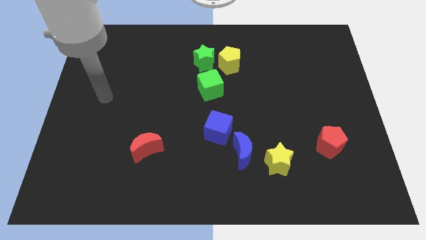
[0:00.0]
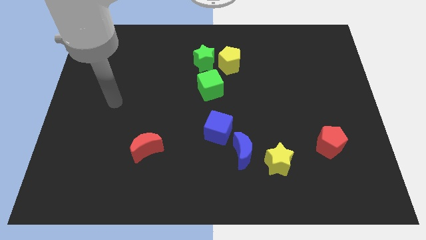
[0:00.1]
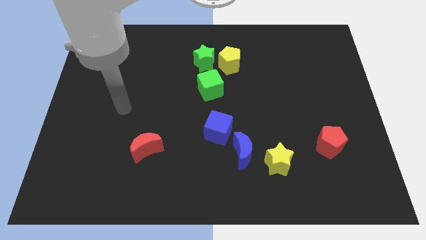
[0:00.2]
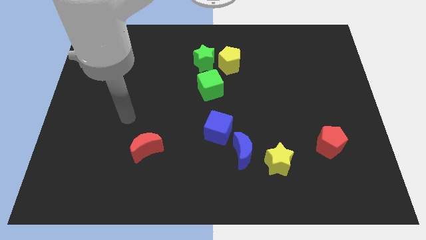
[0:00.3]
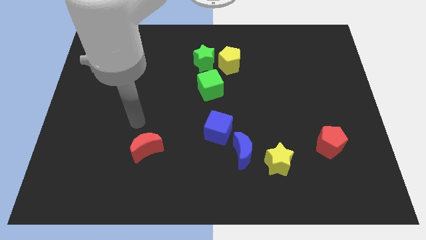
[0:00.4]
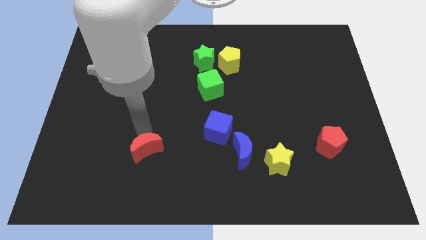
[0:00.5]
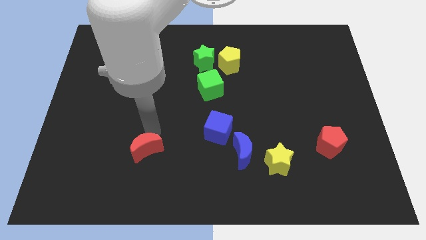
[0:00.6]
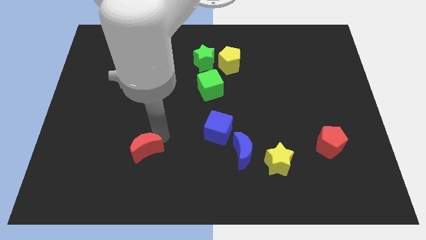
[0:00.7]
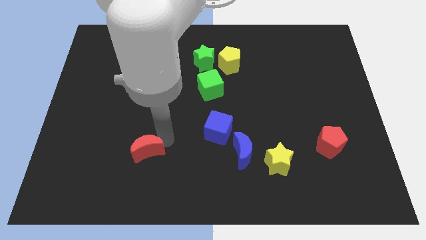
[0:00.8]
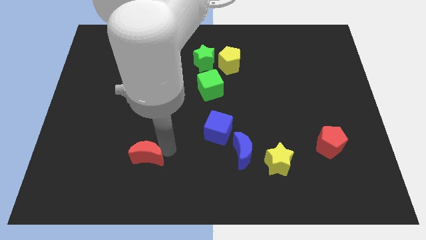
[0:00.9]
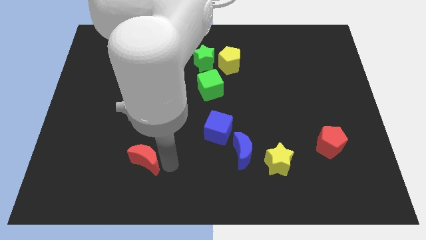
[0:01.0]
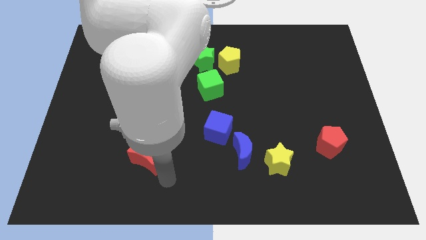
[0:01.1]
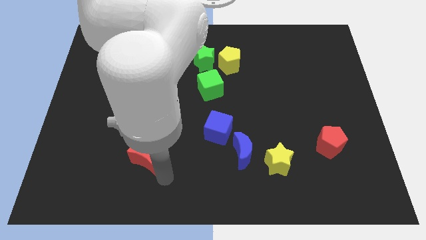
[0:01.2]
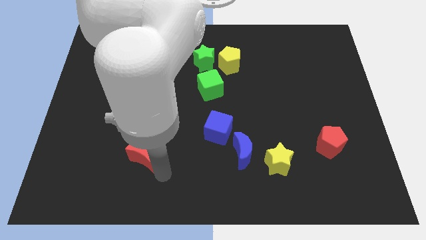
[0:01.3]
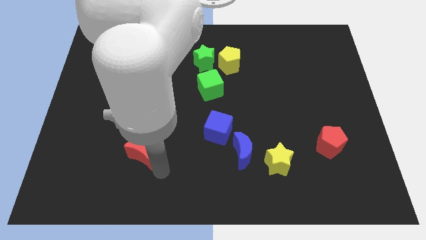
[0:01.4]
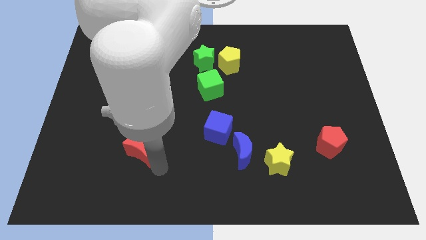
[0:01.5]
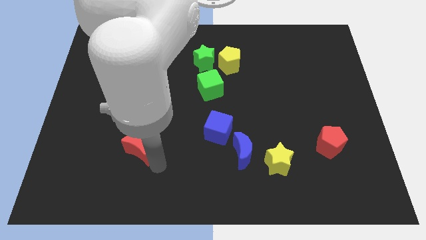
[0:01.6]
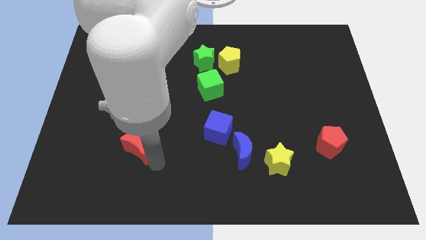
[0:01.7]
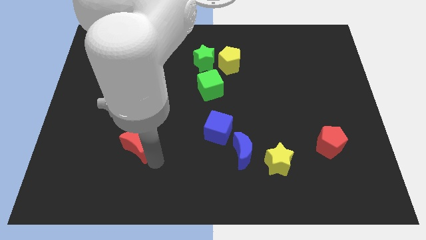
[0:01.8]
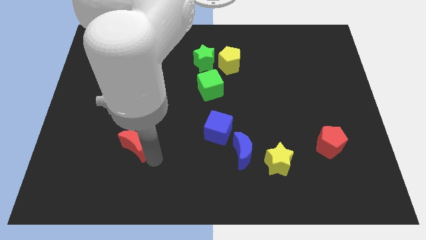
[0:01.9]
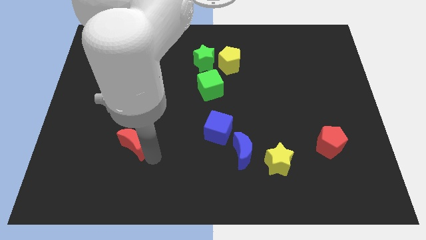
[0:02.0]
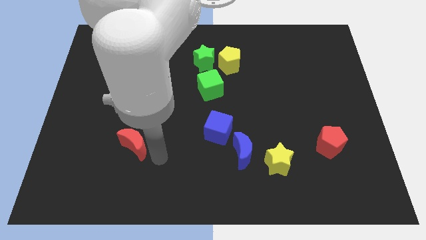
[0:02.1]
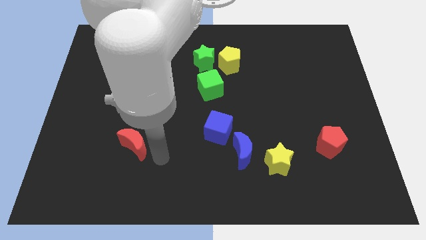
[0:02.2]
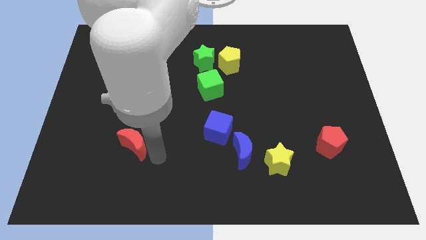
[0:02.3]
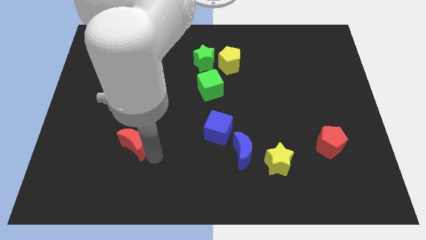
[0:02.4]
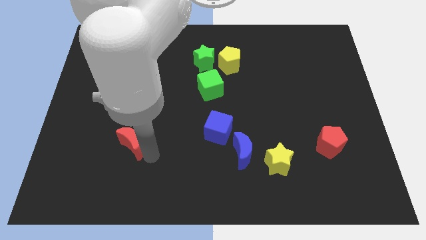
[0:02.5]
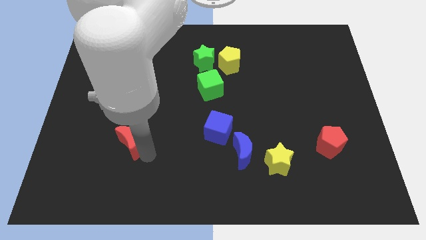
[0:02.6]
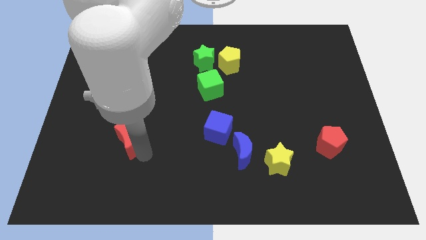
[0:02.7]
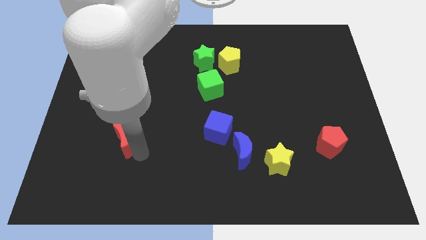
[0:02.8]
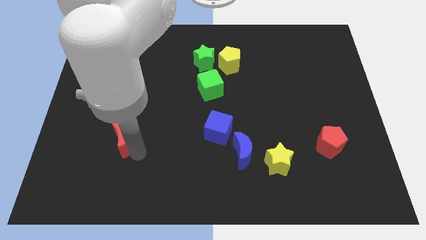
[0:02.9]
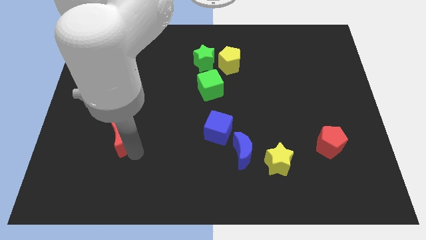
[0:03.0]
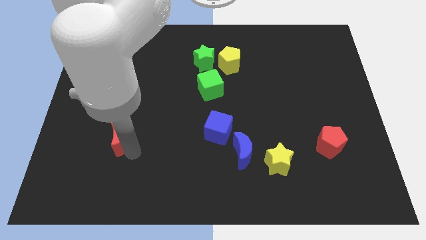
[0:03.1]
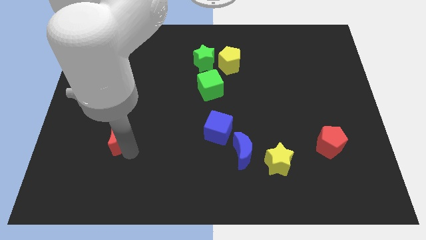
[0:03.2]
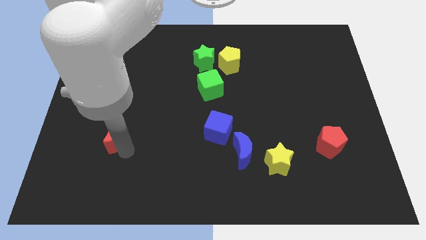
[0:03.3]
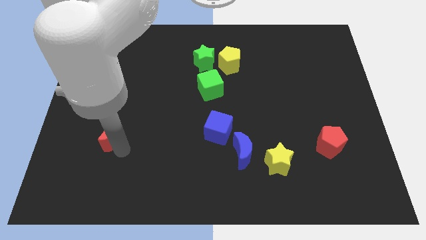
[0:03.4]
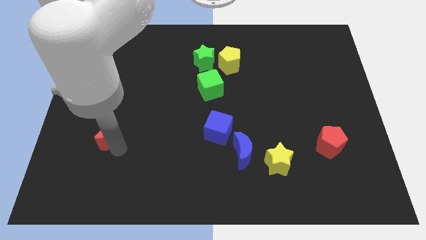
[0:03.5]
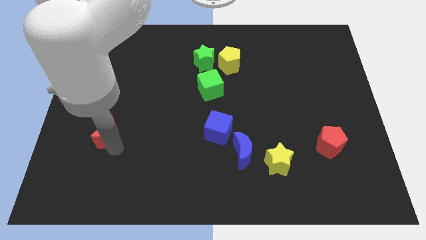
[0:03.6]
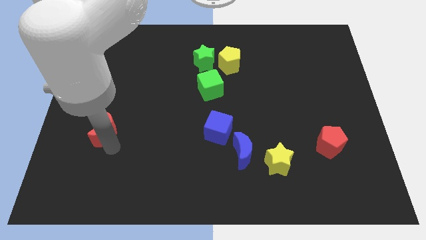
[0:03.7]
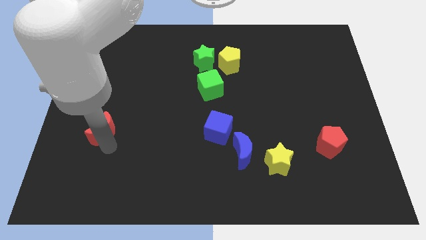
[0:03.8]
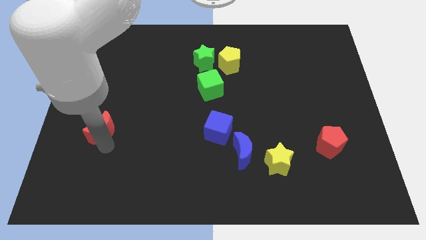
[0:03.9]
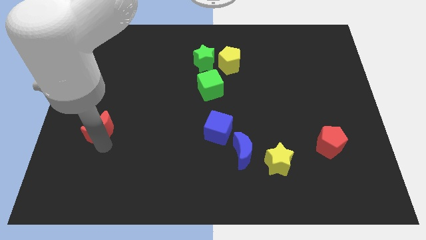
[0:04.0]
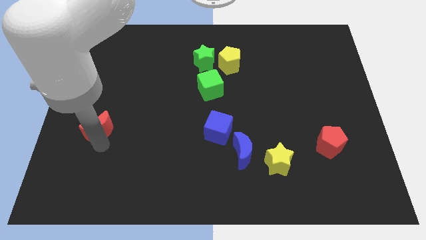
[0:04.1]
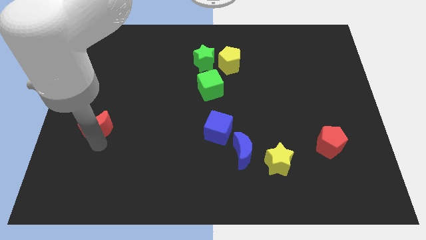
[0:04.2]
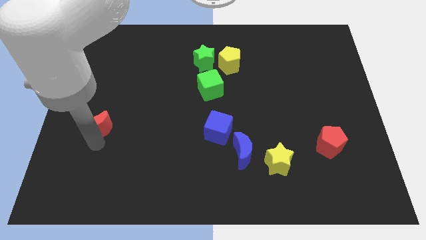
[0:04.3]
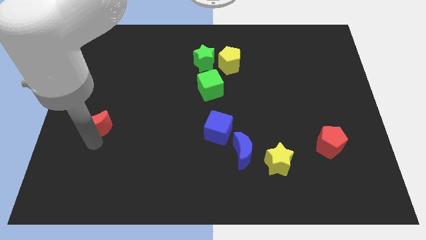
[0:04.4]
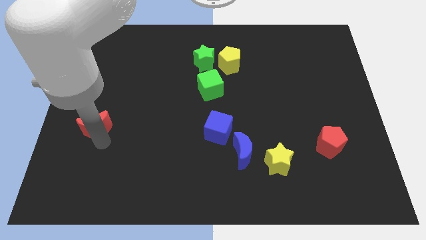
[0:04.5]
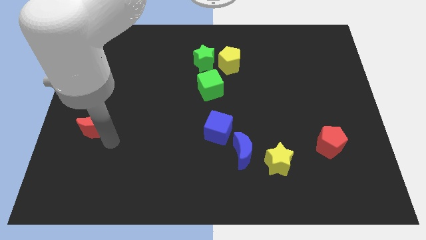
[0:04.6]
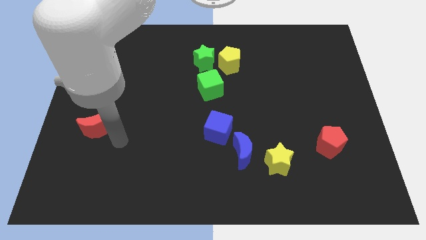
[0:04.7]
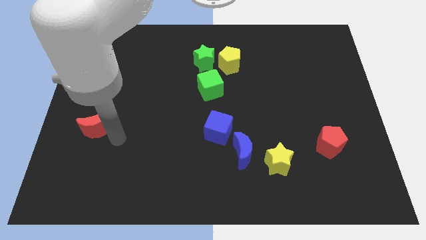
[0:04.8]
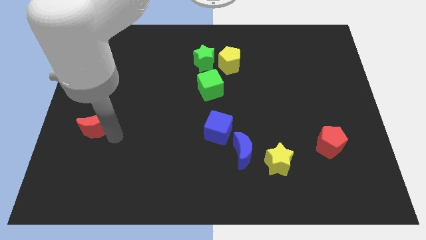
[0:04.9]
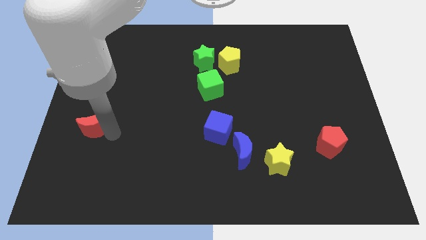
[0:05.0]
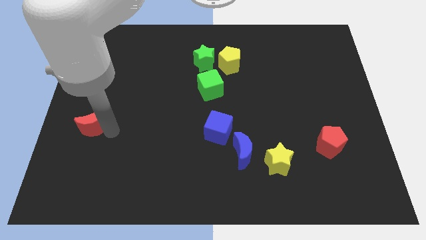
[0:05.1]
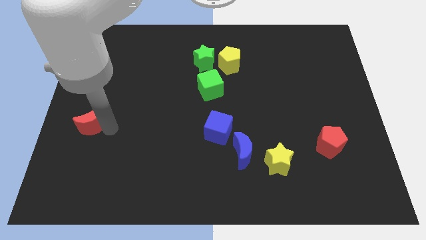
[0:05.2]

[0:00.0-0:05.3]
push the red moon to the left side

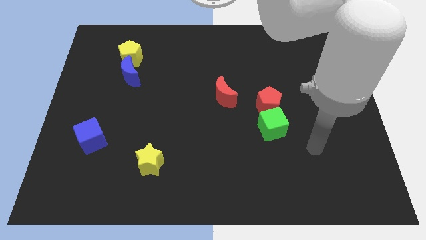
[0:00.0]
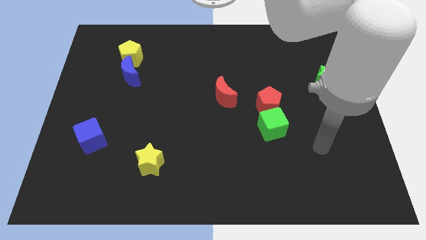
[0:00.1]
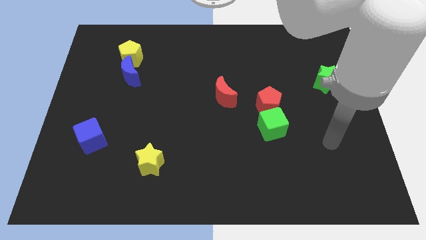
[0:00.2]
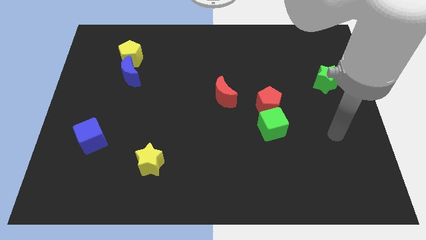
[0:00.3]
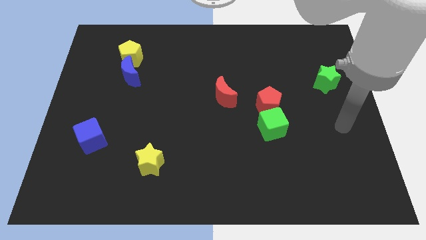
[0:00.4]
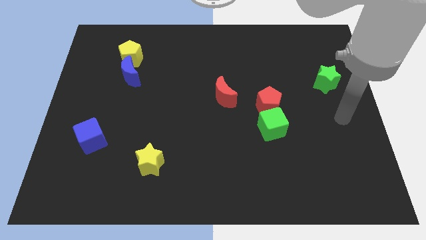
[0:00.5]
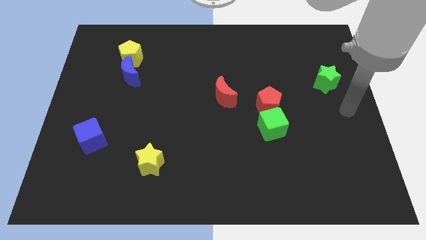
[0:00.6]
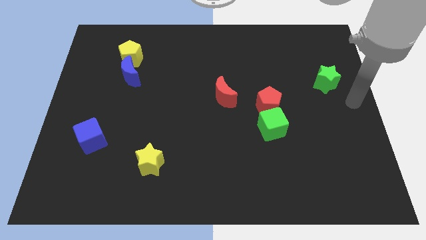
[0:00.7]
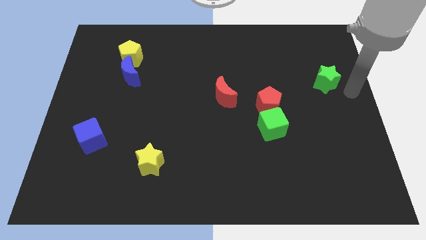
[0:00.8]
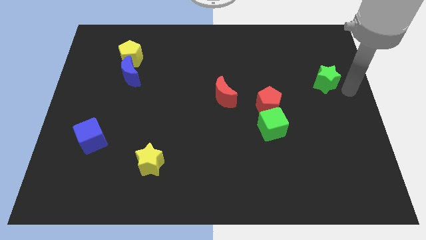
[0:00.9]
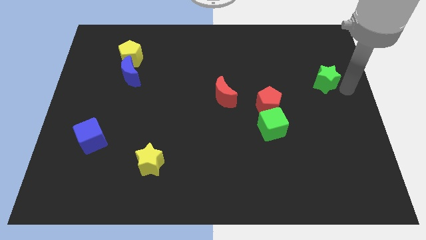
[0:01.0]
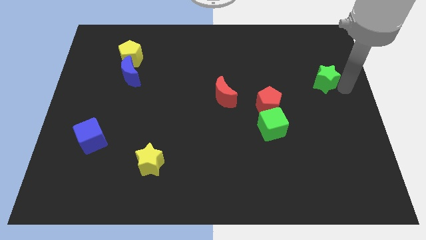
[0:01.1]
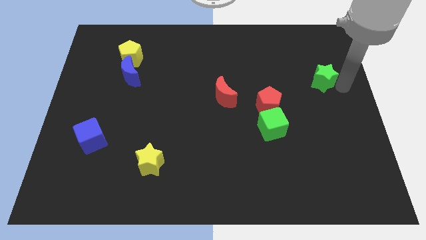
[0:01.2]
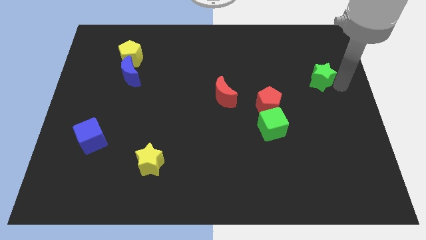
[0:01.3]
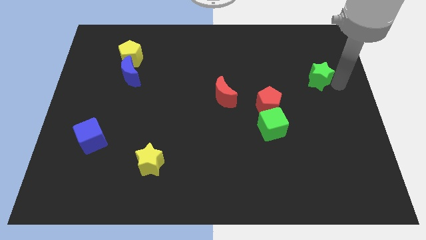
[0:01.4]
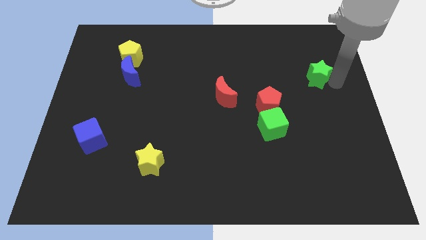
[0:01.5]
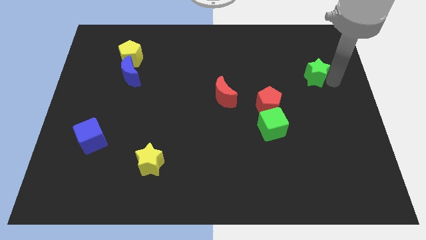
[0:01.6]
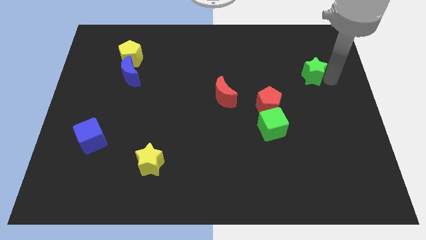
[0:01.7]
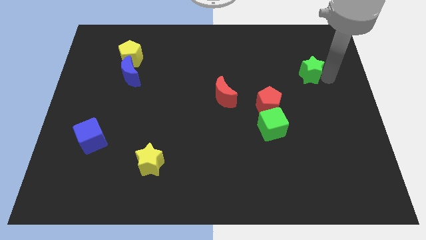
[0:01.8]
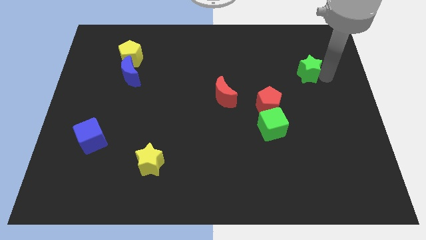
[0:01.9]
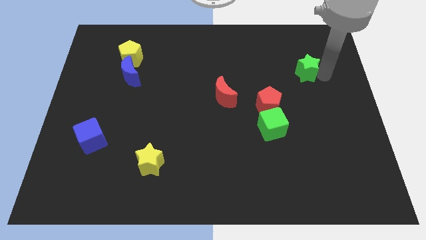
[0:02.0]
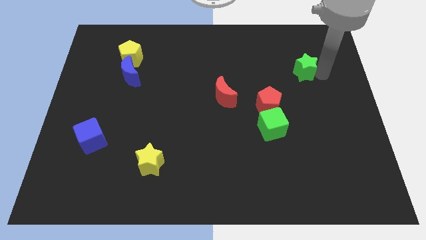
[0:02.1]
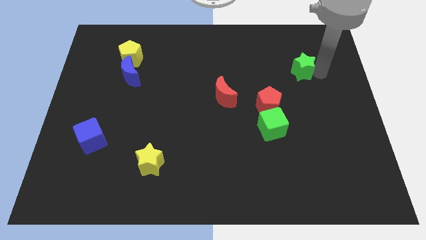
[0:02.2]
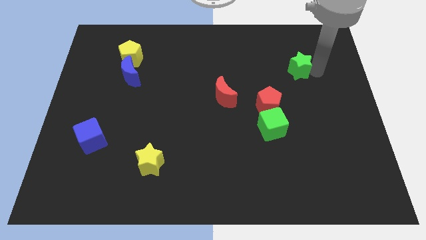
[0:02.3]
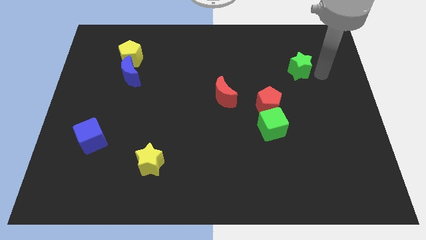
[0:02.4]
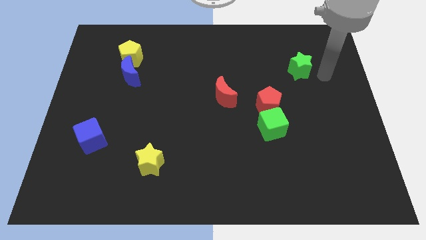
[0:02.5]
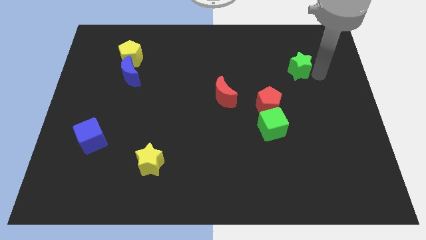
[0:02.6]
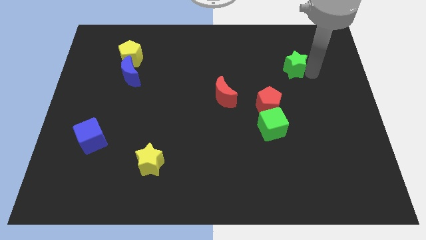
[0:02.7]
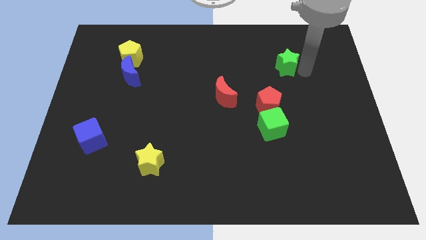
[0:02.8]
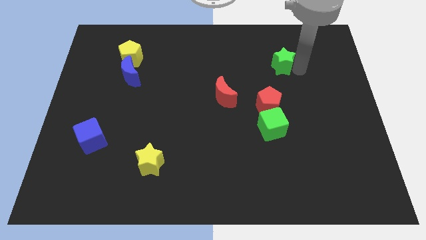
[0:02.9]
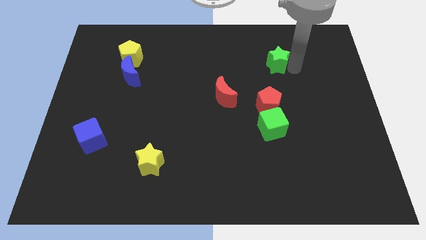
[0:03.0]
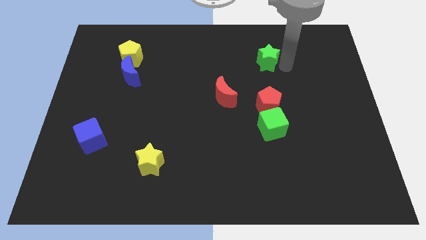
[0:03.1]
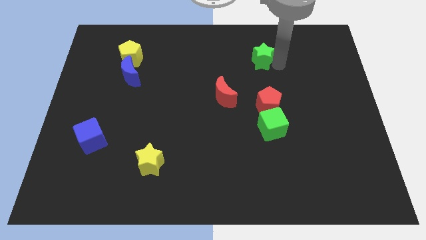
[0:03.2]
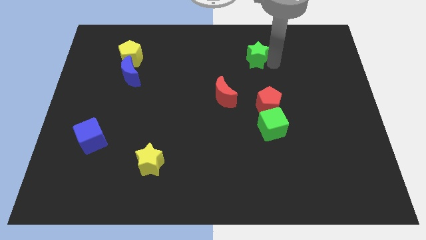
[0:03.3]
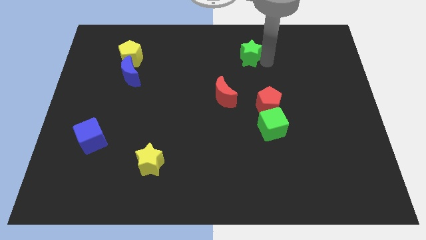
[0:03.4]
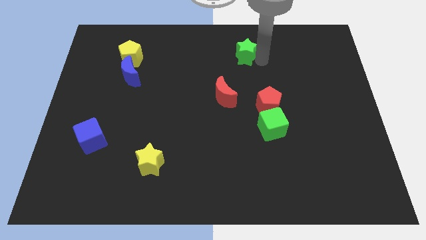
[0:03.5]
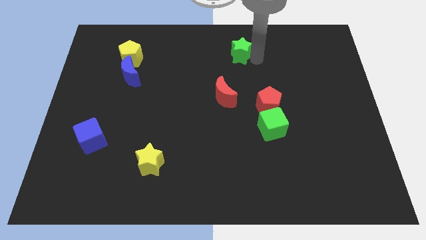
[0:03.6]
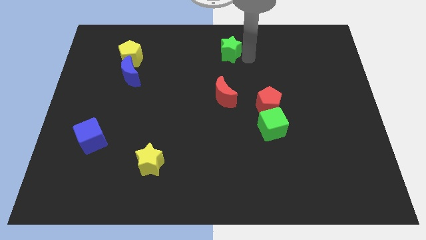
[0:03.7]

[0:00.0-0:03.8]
slide the green star to the top
